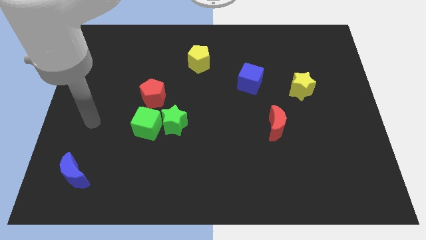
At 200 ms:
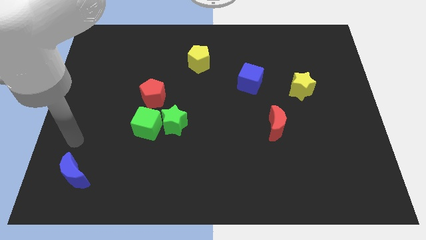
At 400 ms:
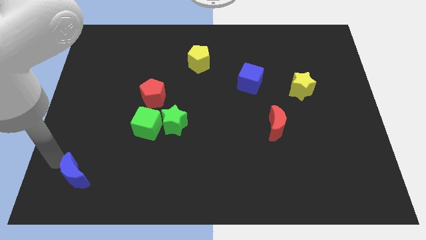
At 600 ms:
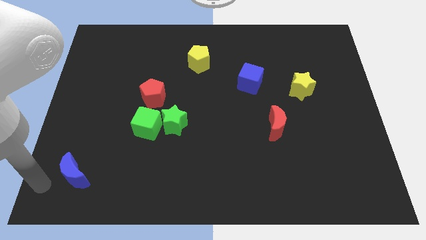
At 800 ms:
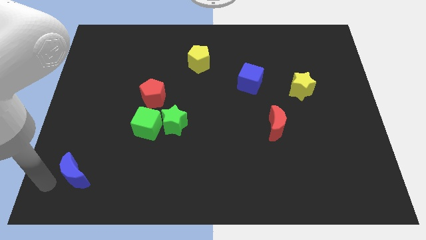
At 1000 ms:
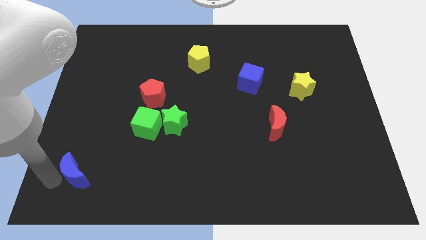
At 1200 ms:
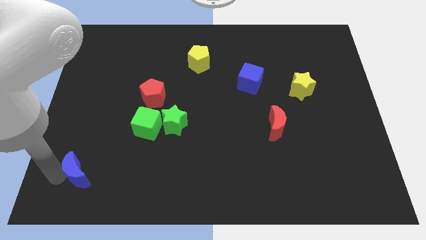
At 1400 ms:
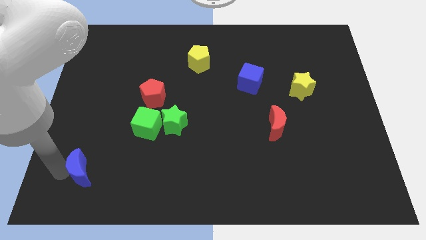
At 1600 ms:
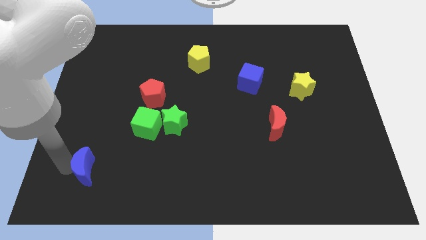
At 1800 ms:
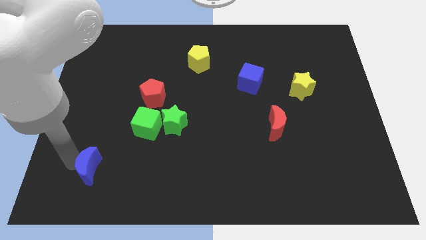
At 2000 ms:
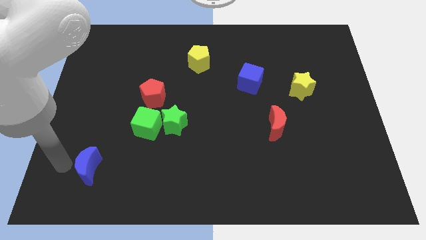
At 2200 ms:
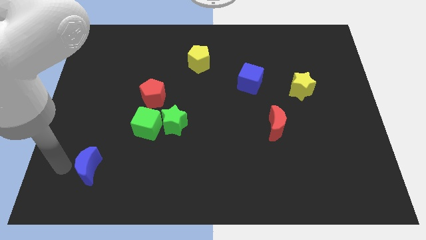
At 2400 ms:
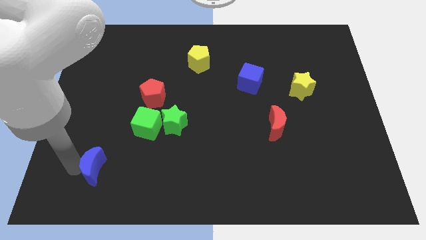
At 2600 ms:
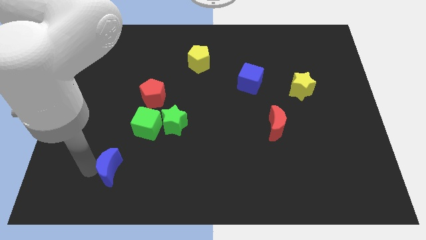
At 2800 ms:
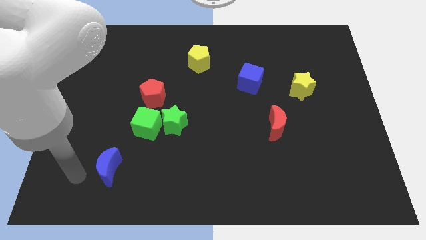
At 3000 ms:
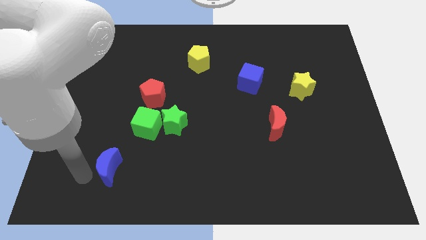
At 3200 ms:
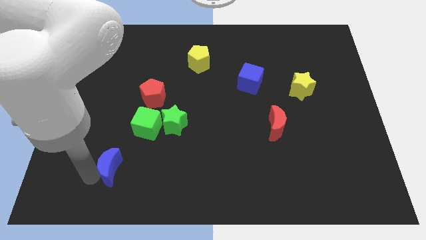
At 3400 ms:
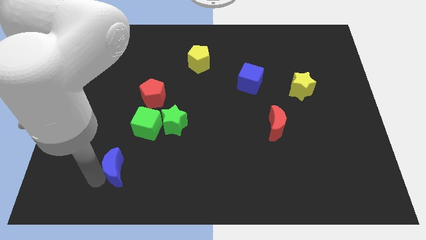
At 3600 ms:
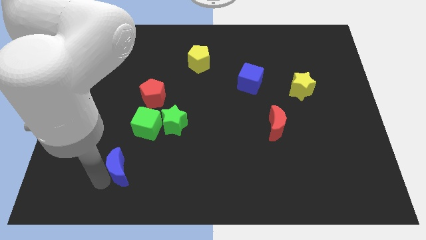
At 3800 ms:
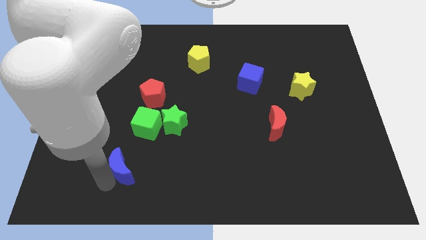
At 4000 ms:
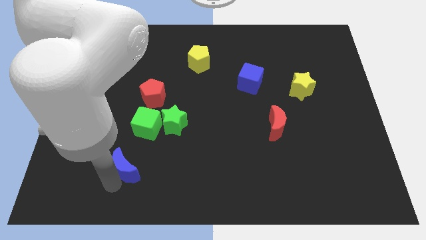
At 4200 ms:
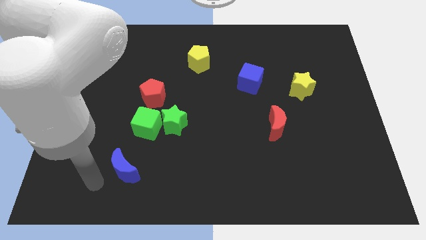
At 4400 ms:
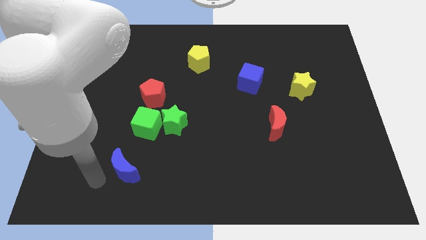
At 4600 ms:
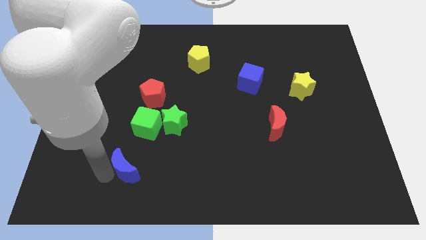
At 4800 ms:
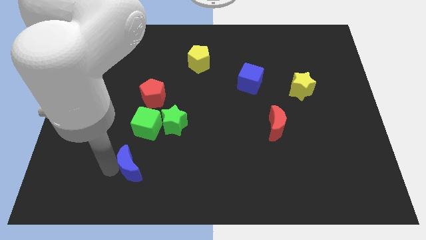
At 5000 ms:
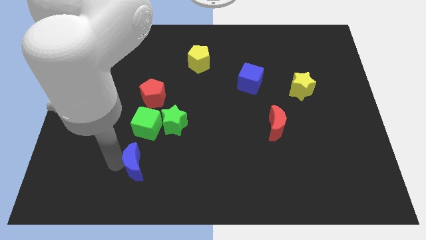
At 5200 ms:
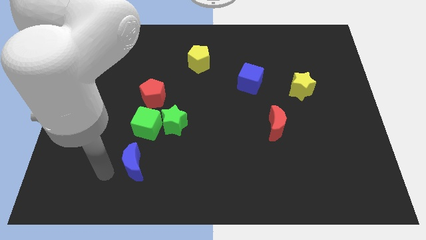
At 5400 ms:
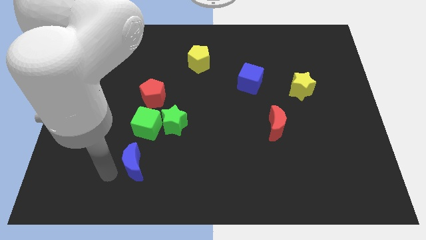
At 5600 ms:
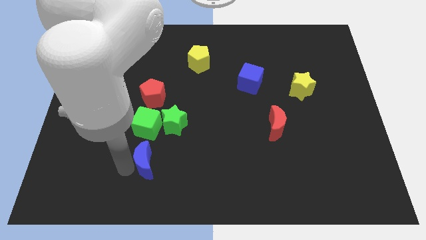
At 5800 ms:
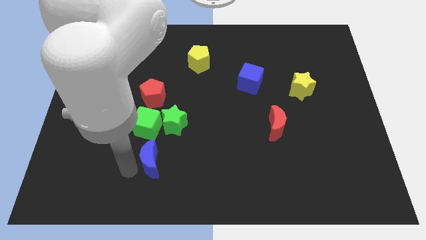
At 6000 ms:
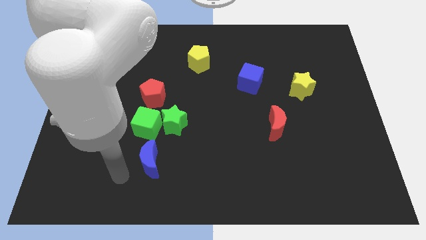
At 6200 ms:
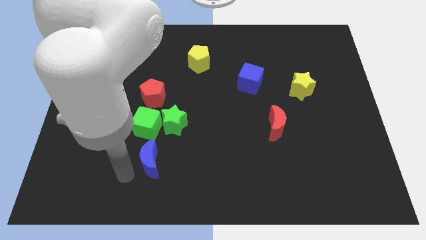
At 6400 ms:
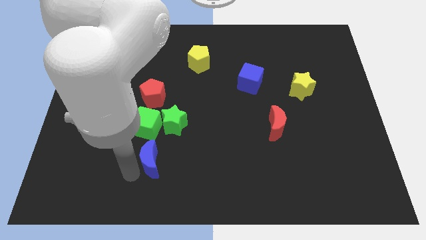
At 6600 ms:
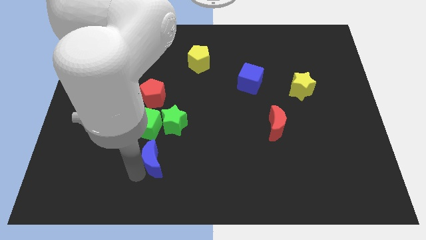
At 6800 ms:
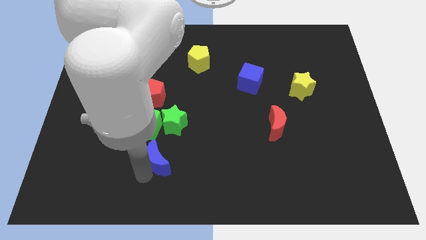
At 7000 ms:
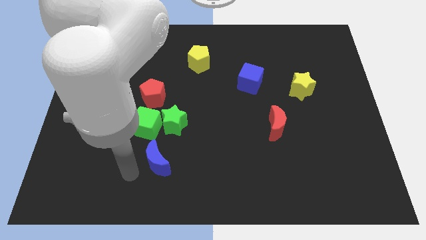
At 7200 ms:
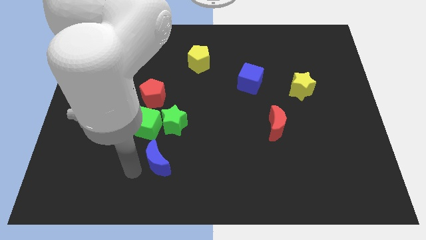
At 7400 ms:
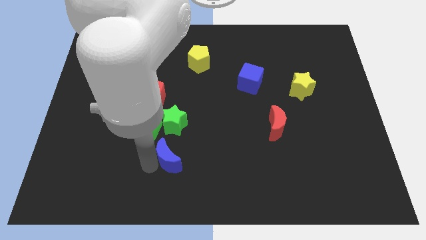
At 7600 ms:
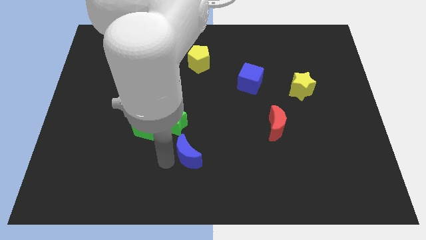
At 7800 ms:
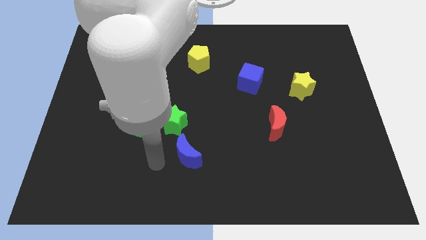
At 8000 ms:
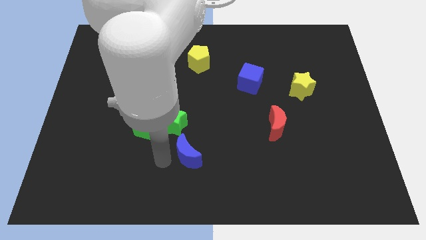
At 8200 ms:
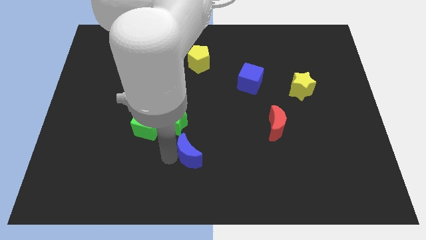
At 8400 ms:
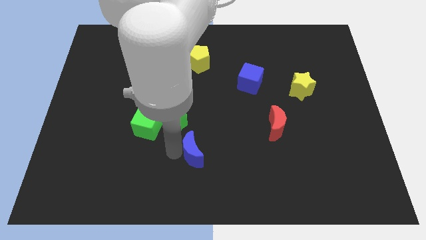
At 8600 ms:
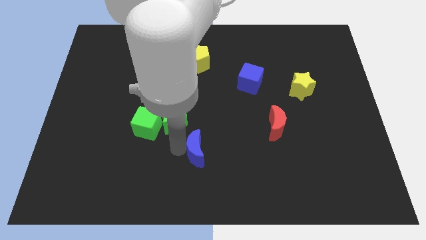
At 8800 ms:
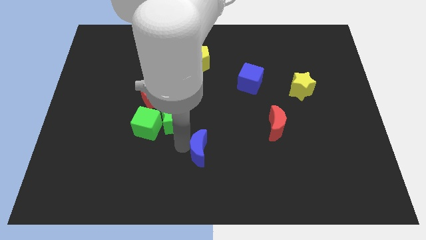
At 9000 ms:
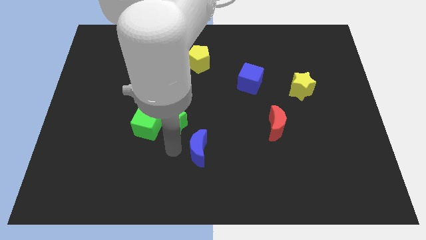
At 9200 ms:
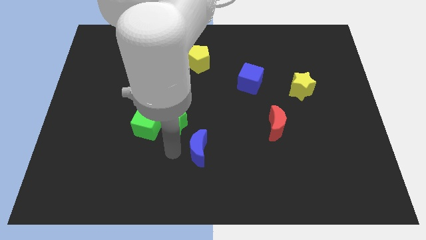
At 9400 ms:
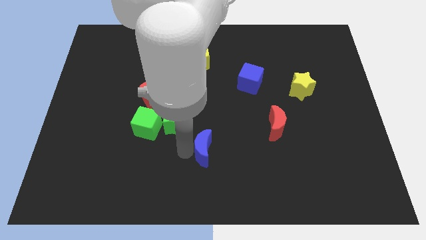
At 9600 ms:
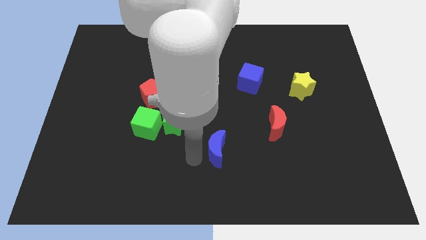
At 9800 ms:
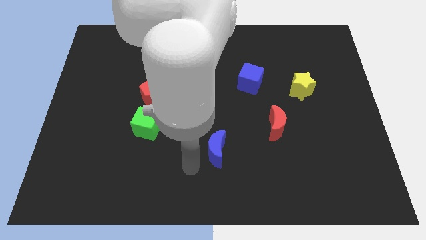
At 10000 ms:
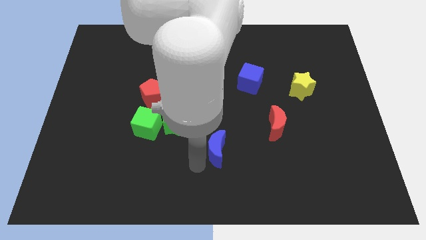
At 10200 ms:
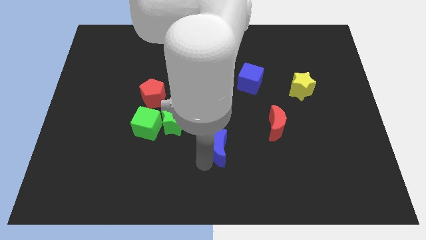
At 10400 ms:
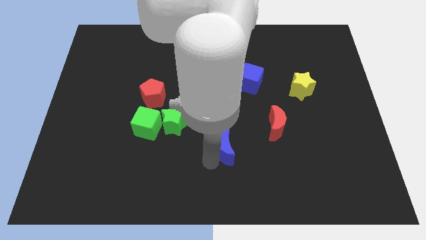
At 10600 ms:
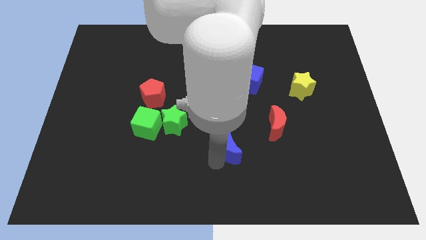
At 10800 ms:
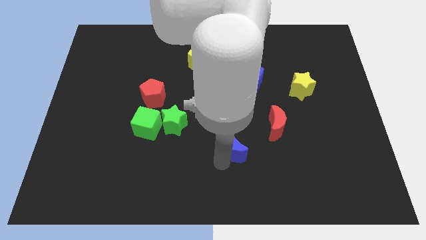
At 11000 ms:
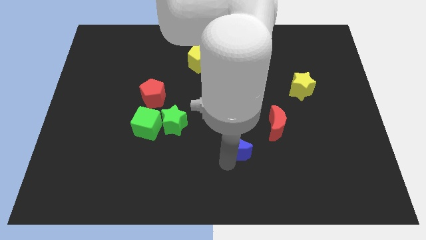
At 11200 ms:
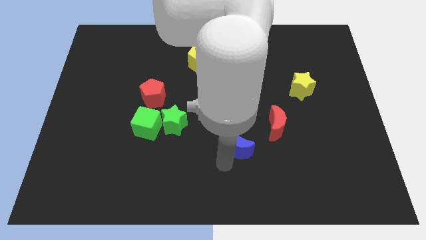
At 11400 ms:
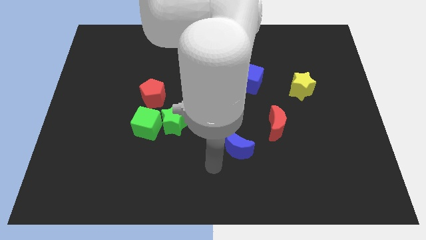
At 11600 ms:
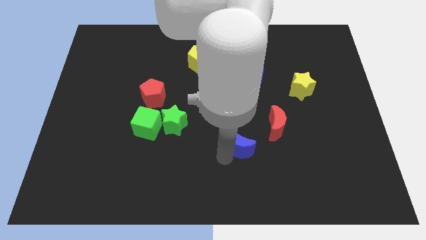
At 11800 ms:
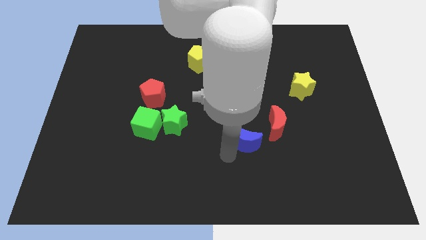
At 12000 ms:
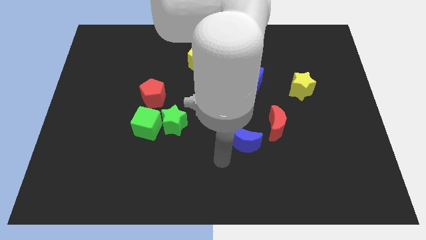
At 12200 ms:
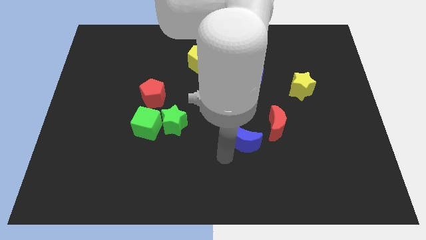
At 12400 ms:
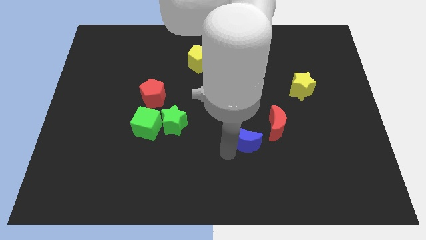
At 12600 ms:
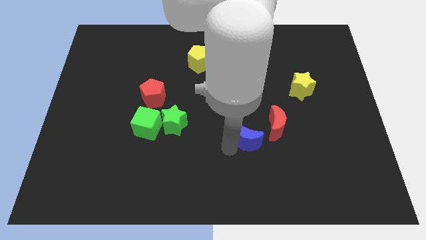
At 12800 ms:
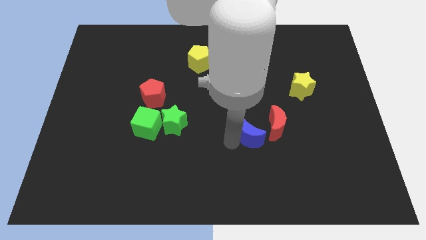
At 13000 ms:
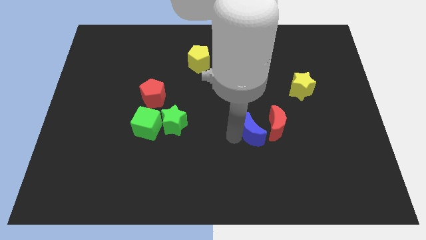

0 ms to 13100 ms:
move the blue moon to the red moon

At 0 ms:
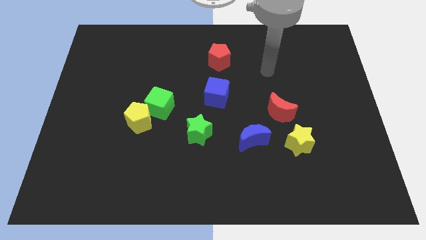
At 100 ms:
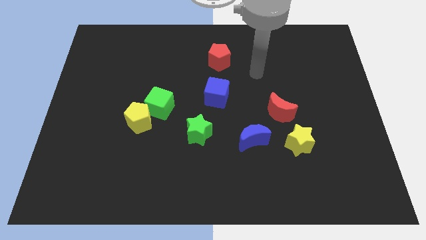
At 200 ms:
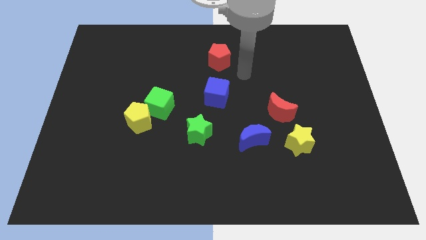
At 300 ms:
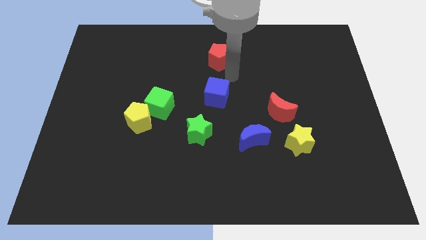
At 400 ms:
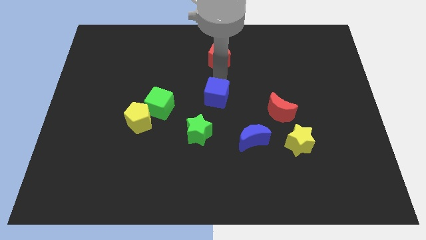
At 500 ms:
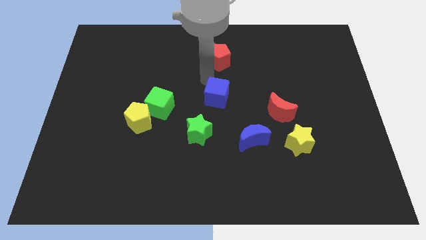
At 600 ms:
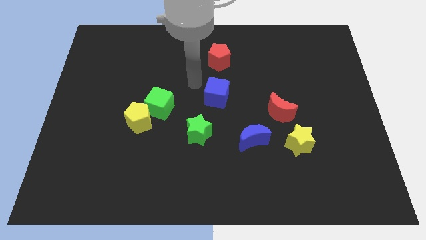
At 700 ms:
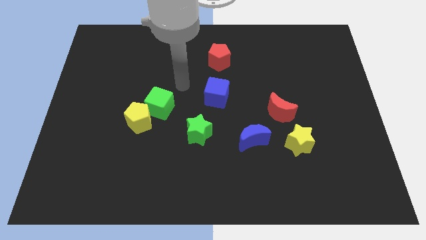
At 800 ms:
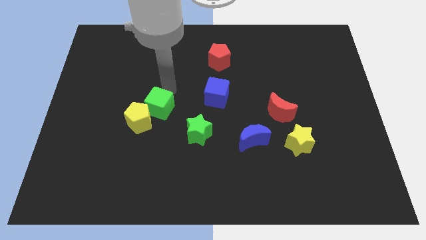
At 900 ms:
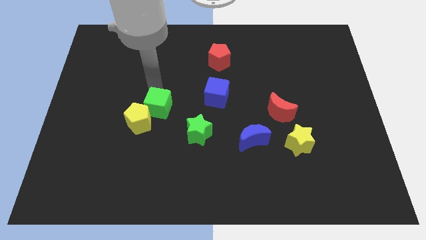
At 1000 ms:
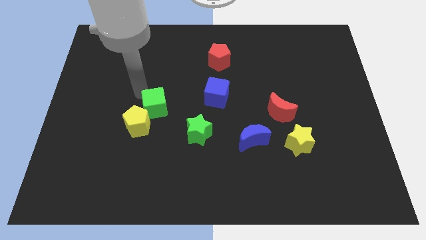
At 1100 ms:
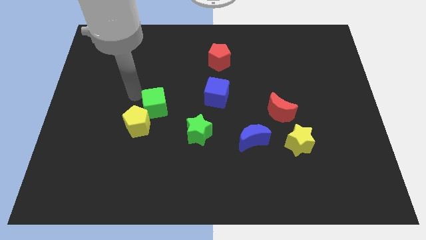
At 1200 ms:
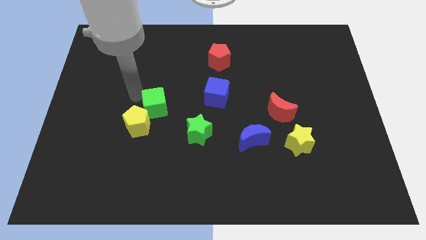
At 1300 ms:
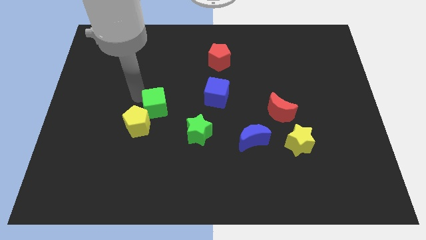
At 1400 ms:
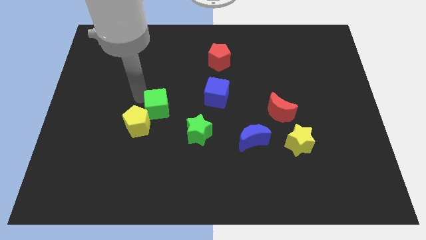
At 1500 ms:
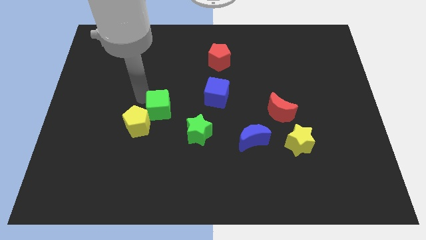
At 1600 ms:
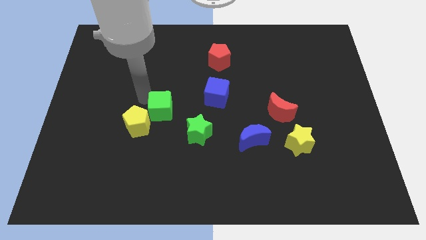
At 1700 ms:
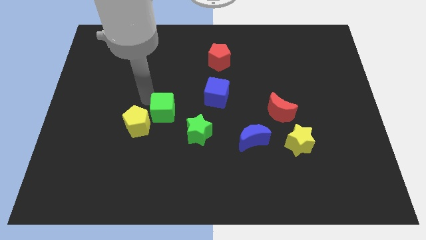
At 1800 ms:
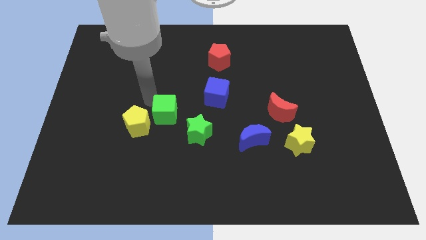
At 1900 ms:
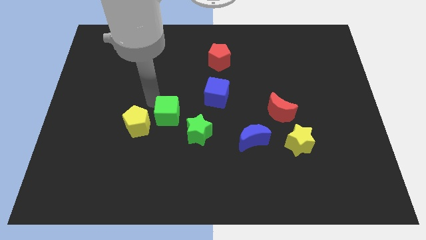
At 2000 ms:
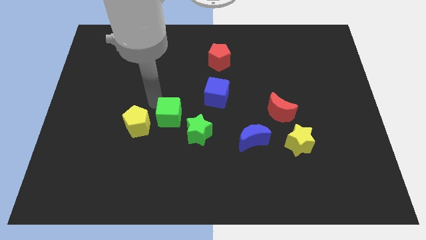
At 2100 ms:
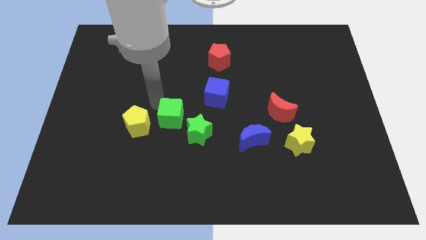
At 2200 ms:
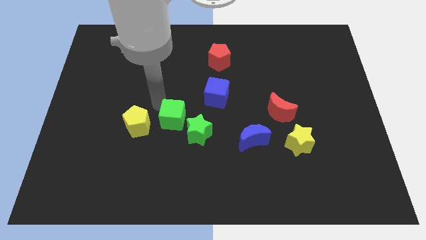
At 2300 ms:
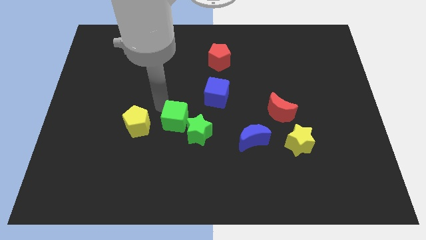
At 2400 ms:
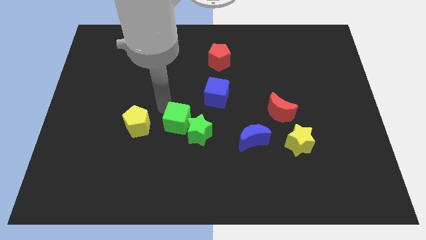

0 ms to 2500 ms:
slide the green cube towards the green star
